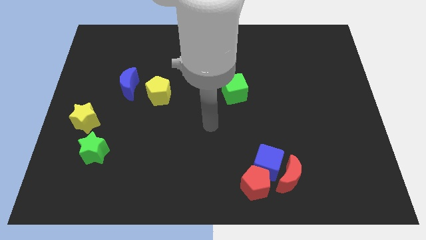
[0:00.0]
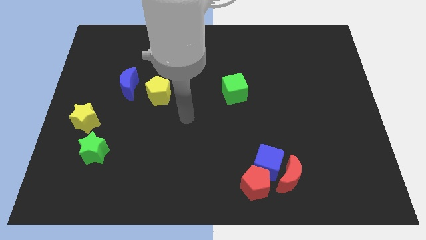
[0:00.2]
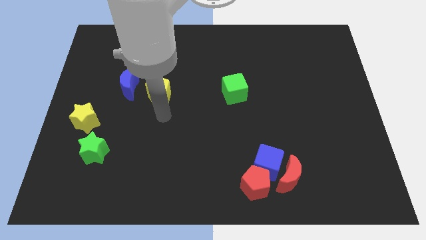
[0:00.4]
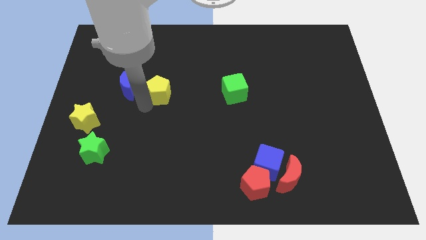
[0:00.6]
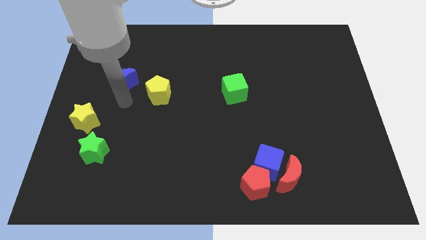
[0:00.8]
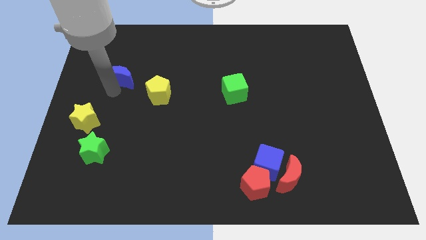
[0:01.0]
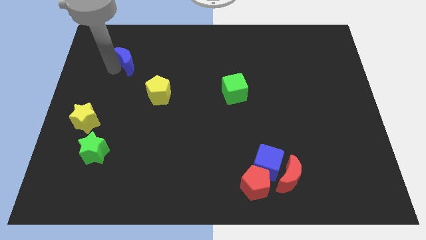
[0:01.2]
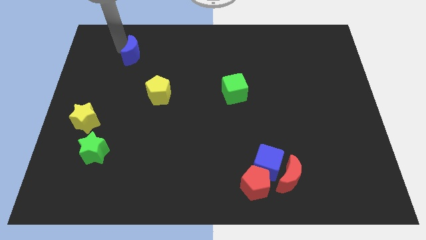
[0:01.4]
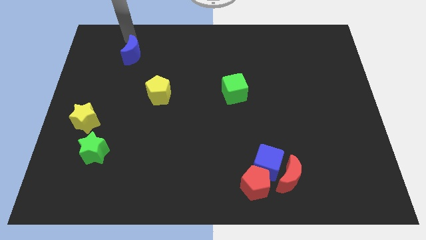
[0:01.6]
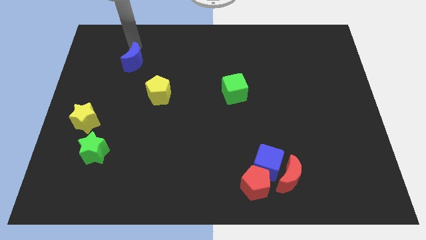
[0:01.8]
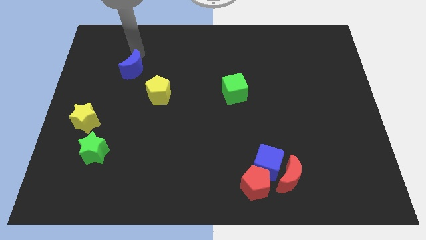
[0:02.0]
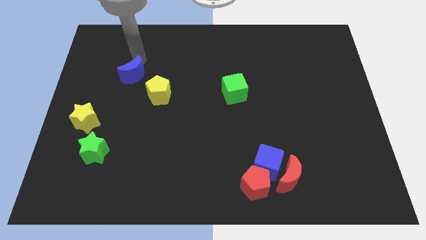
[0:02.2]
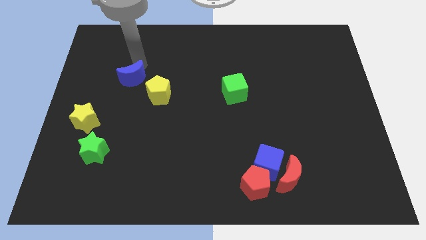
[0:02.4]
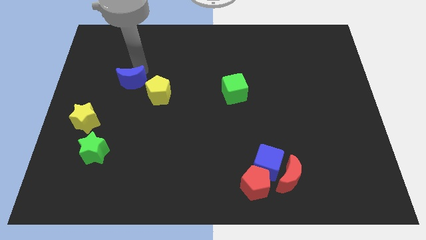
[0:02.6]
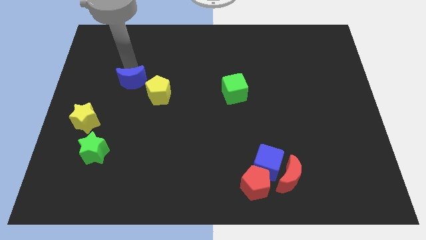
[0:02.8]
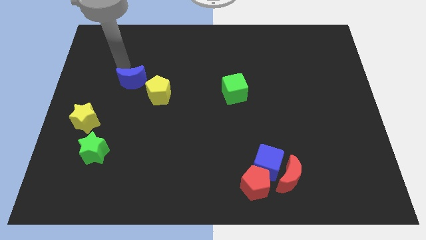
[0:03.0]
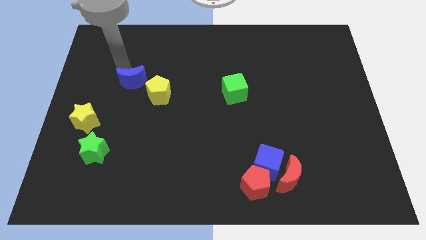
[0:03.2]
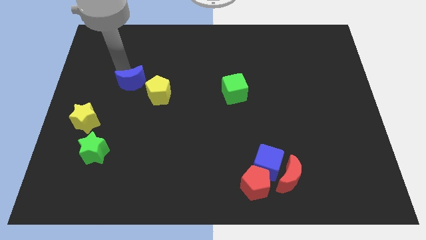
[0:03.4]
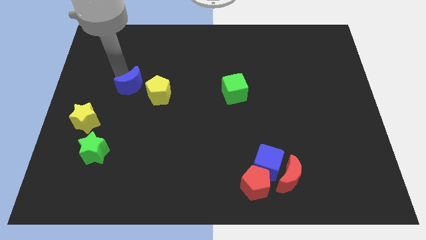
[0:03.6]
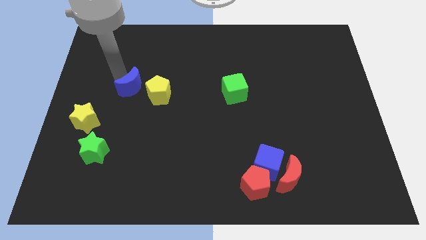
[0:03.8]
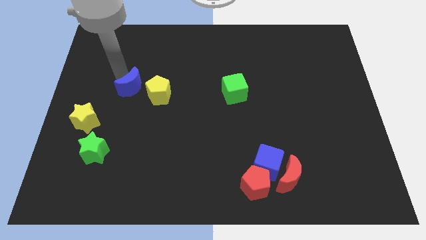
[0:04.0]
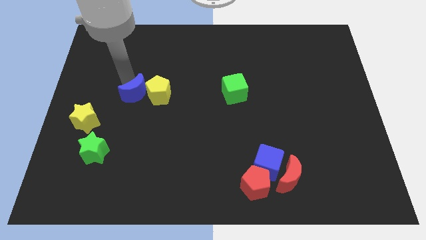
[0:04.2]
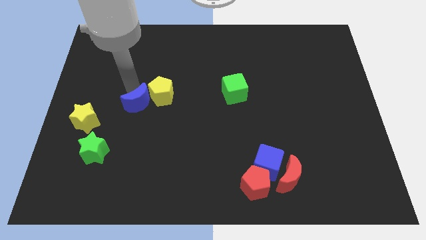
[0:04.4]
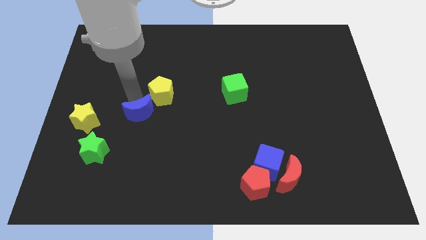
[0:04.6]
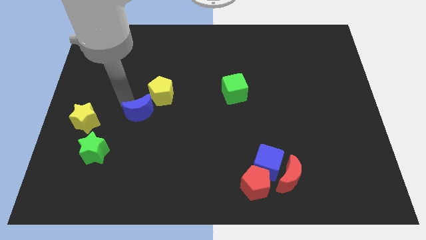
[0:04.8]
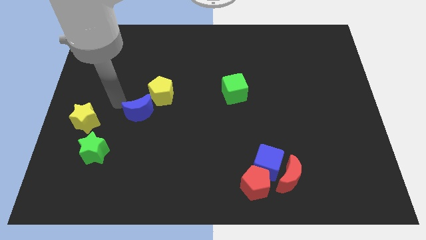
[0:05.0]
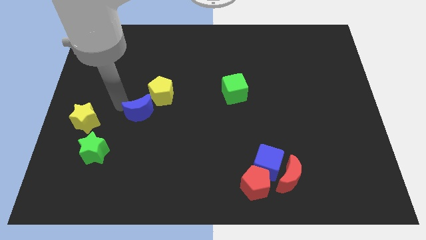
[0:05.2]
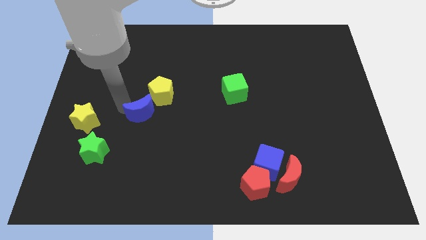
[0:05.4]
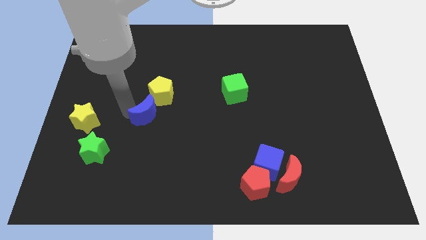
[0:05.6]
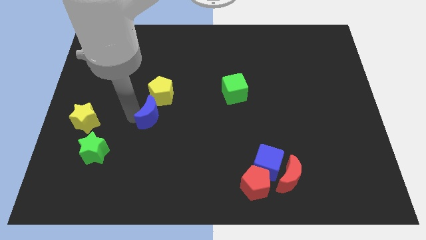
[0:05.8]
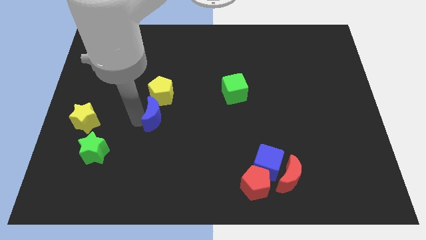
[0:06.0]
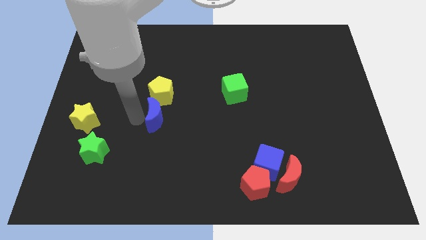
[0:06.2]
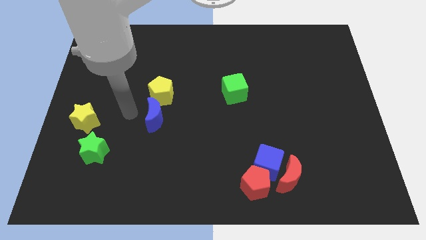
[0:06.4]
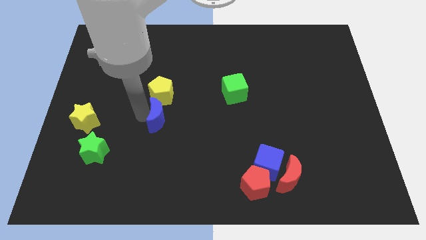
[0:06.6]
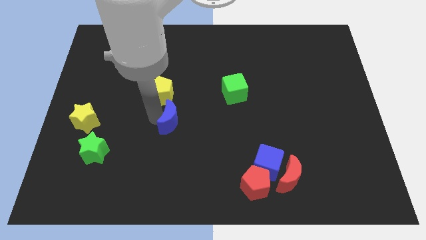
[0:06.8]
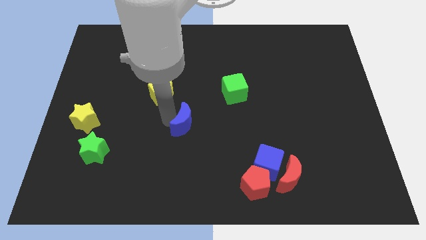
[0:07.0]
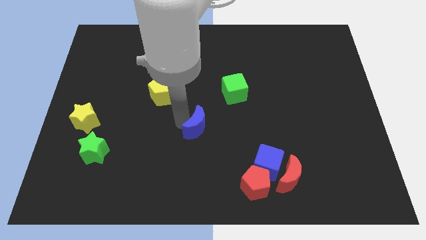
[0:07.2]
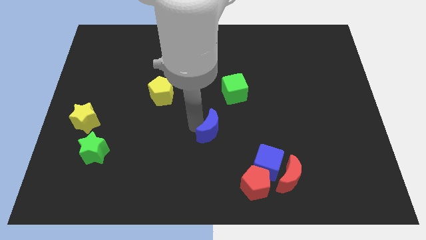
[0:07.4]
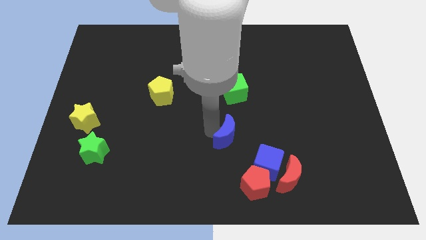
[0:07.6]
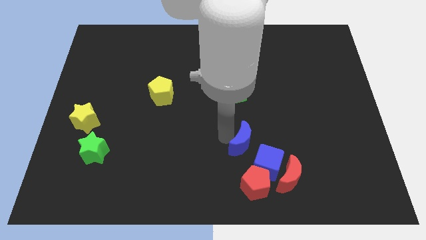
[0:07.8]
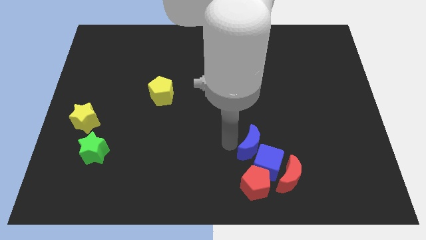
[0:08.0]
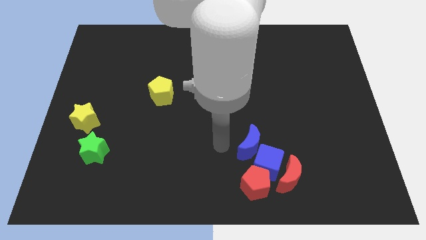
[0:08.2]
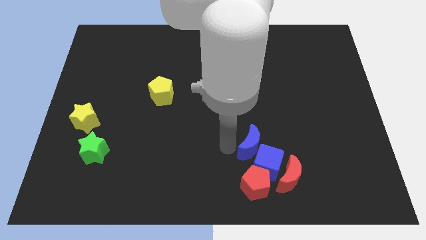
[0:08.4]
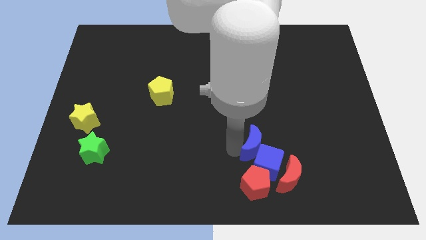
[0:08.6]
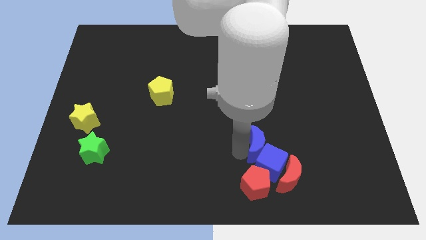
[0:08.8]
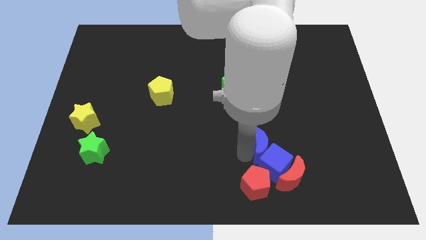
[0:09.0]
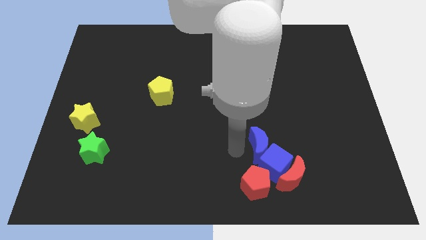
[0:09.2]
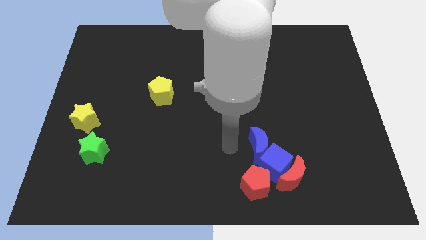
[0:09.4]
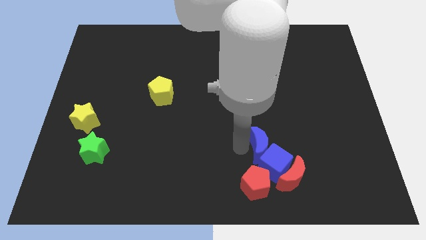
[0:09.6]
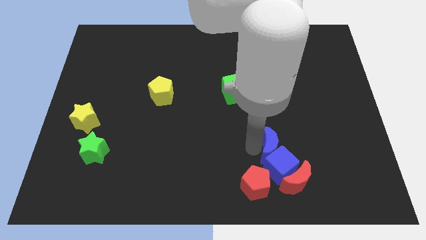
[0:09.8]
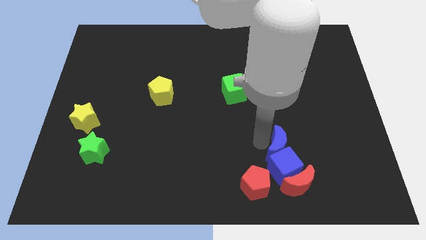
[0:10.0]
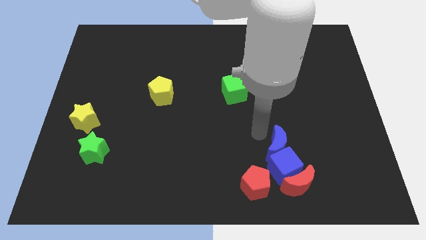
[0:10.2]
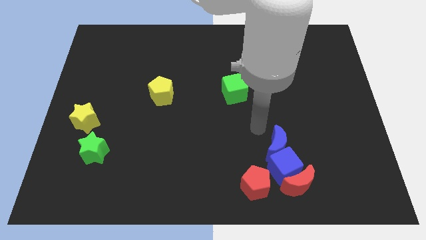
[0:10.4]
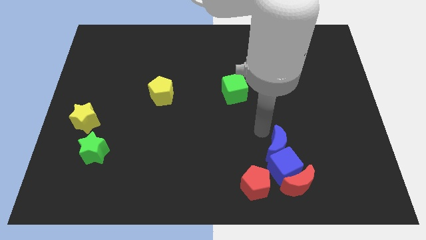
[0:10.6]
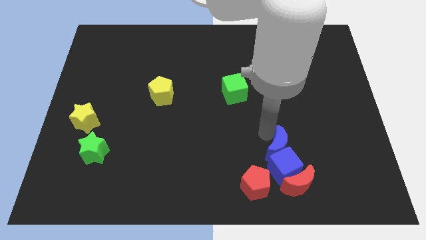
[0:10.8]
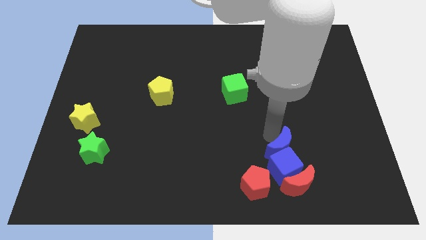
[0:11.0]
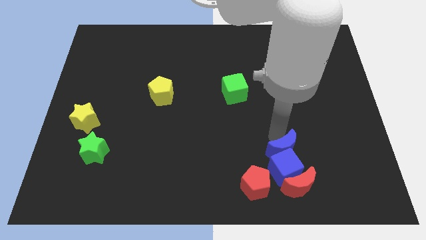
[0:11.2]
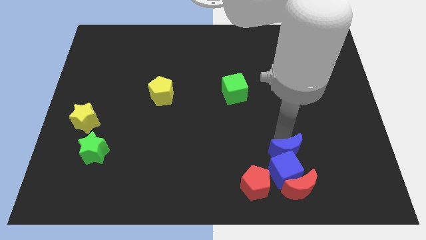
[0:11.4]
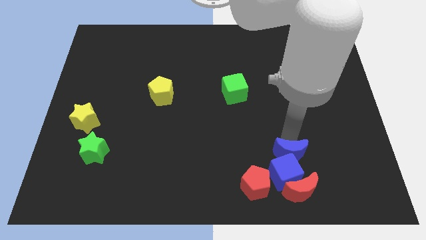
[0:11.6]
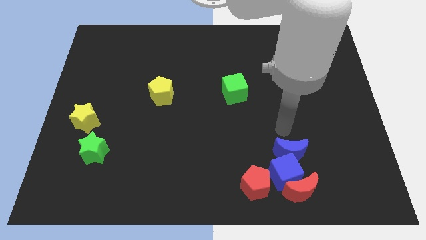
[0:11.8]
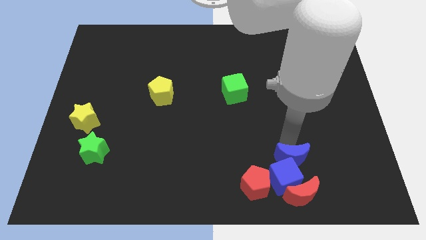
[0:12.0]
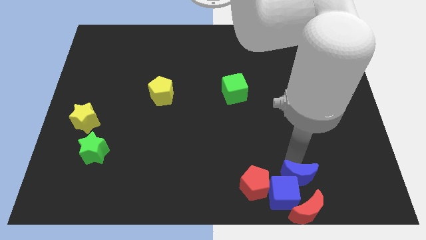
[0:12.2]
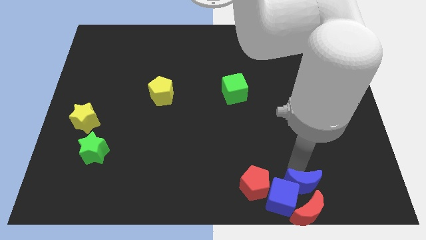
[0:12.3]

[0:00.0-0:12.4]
put the blue moon next to the red moon
